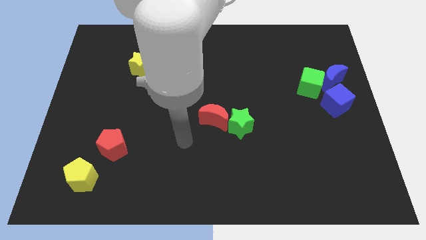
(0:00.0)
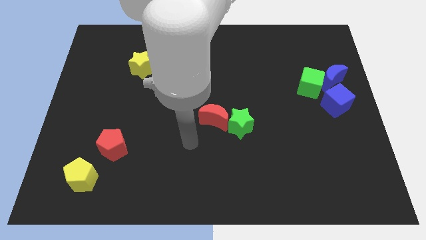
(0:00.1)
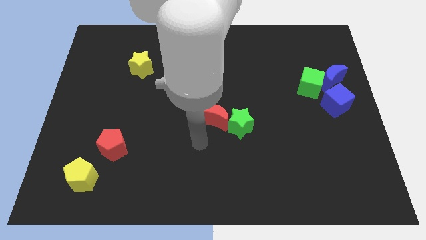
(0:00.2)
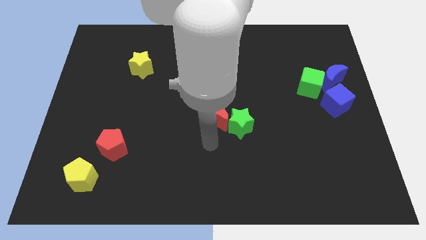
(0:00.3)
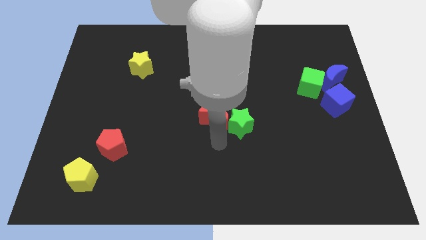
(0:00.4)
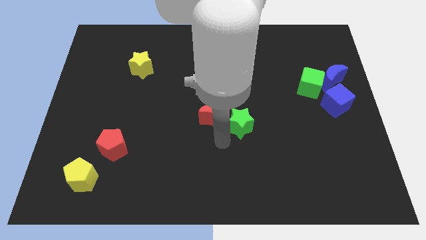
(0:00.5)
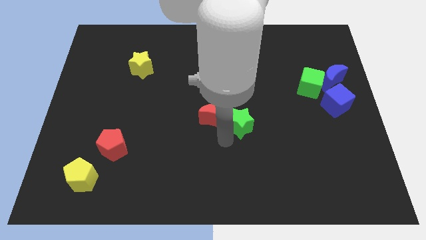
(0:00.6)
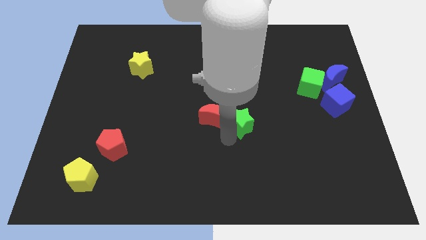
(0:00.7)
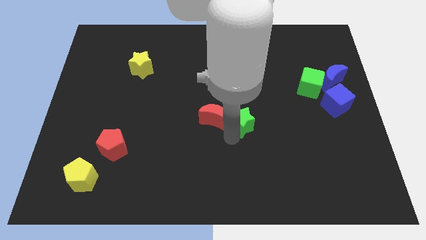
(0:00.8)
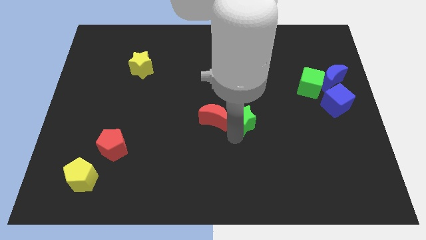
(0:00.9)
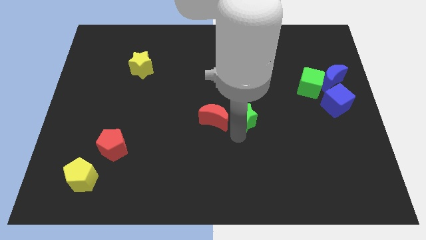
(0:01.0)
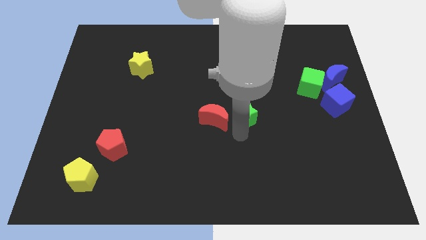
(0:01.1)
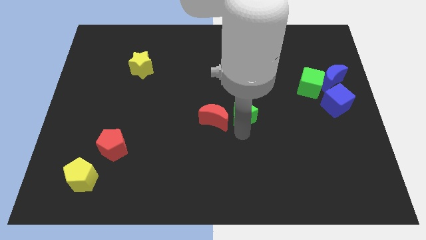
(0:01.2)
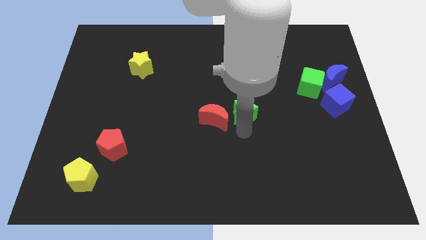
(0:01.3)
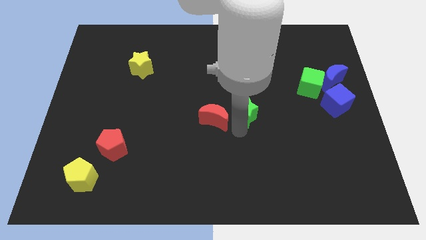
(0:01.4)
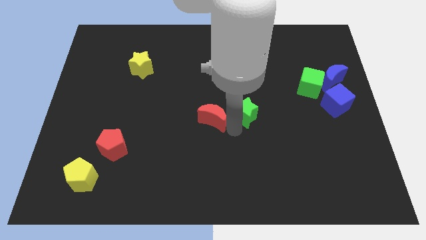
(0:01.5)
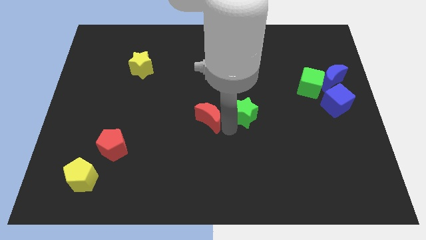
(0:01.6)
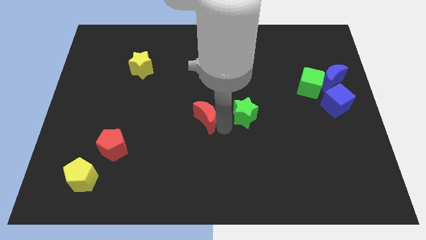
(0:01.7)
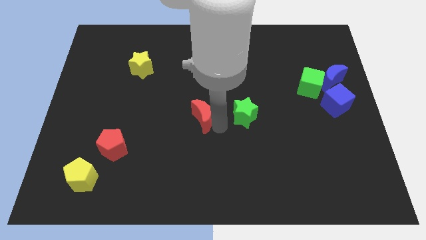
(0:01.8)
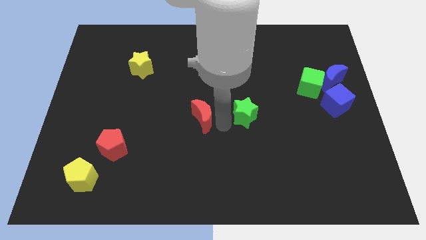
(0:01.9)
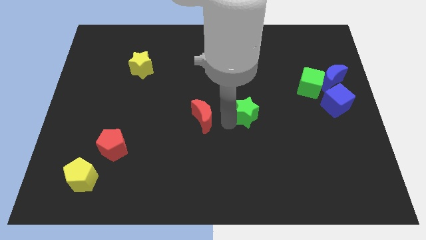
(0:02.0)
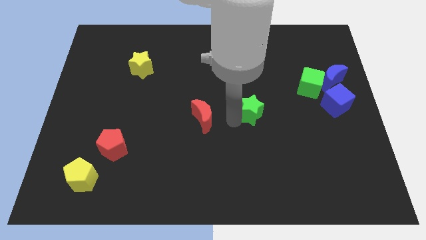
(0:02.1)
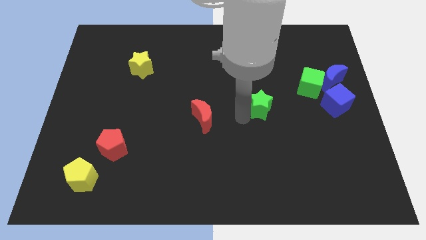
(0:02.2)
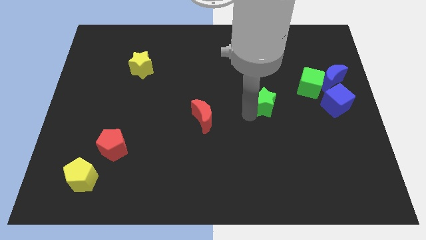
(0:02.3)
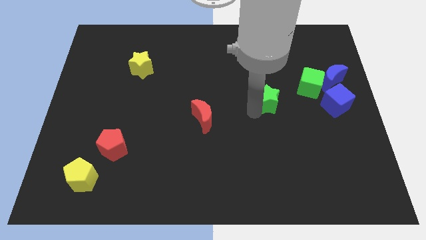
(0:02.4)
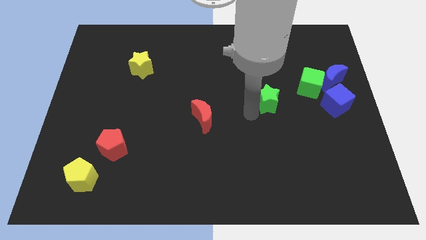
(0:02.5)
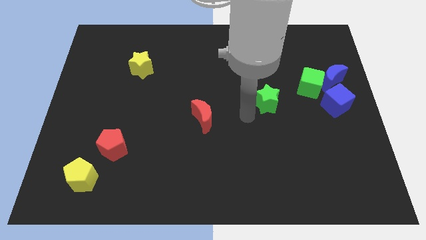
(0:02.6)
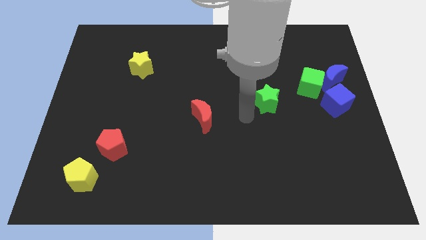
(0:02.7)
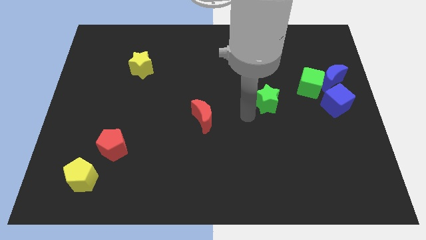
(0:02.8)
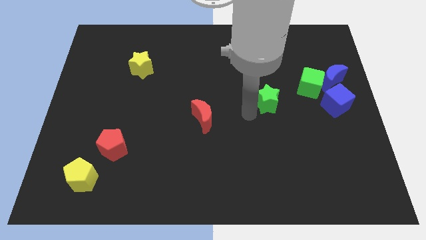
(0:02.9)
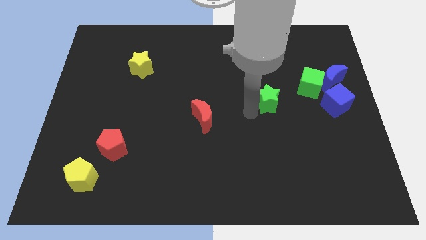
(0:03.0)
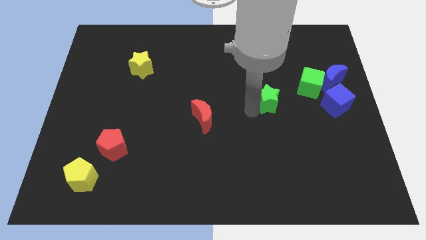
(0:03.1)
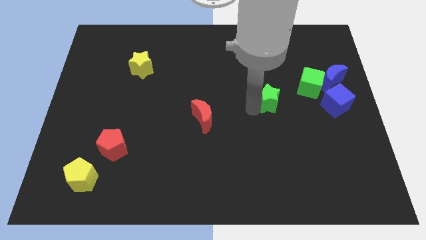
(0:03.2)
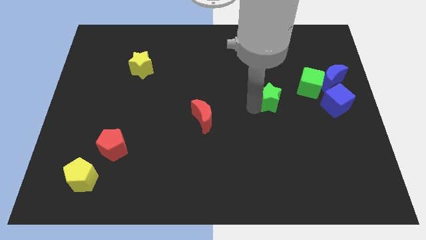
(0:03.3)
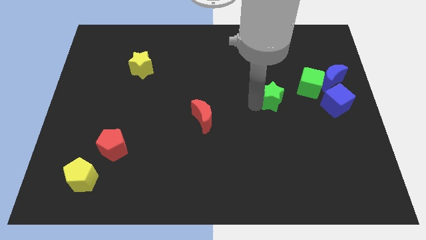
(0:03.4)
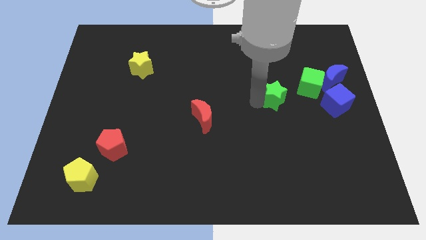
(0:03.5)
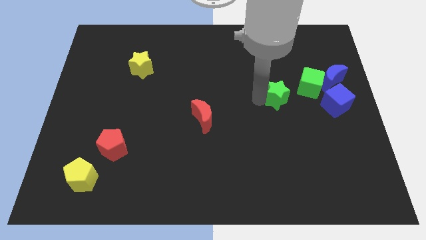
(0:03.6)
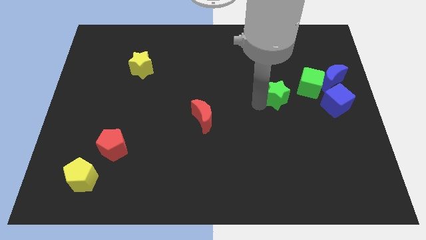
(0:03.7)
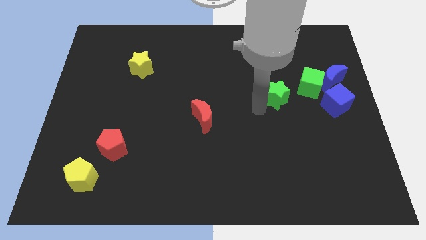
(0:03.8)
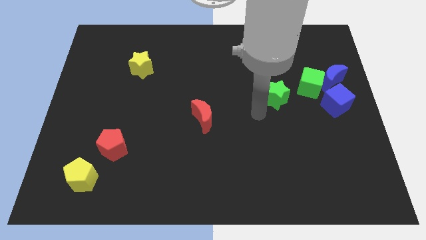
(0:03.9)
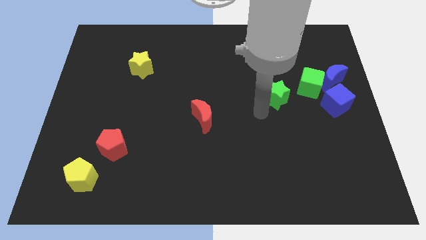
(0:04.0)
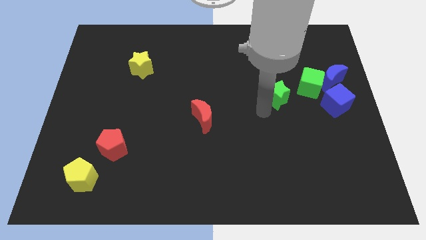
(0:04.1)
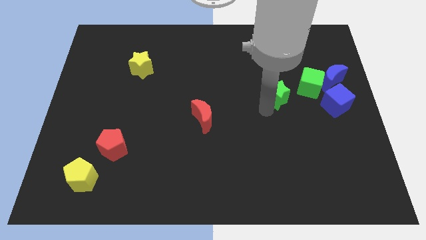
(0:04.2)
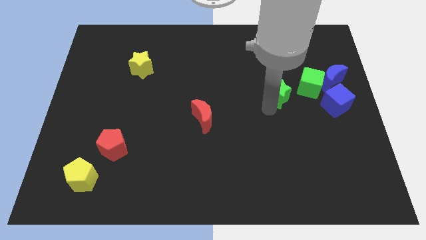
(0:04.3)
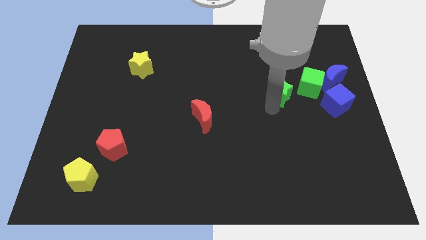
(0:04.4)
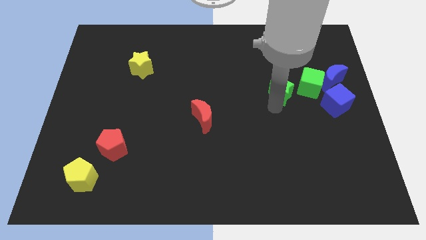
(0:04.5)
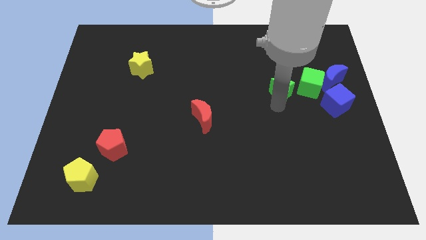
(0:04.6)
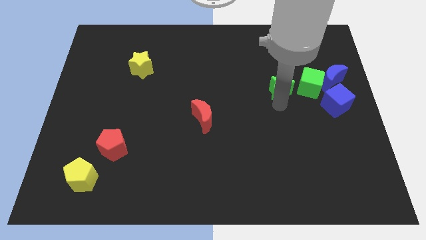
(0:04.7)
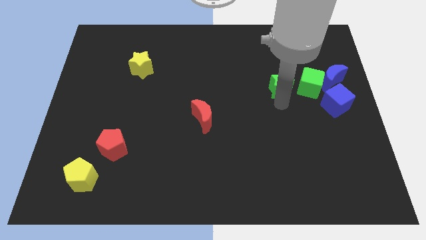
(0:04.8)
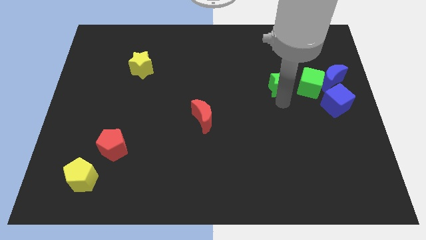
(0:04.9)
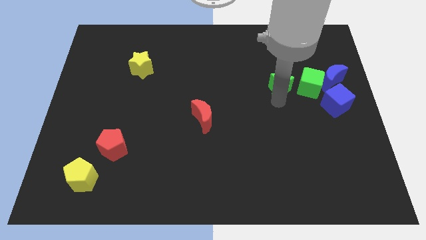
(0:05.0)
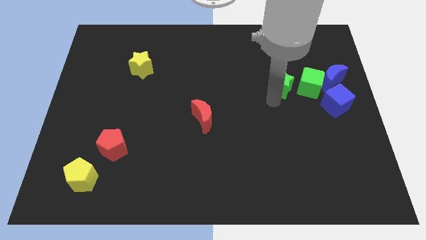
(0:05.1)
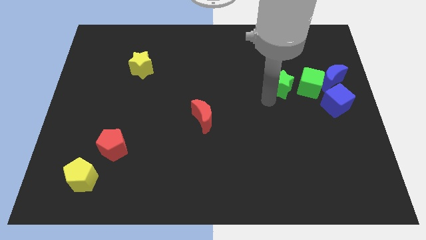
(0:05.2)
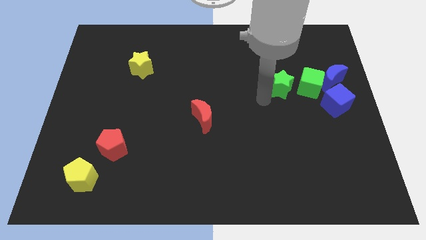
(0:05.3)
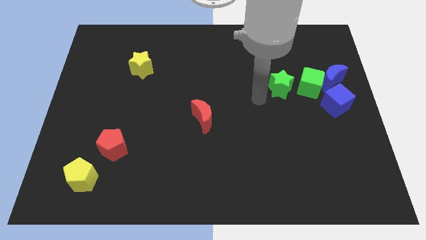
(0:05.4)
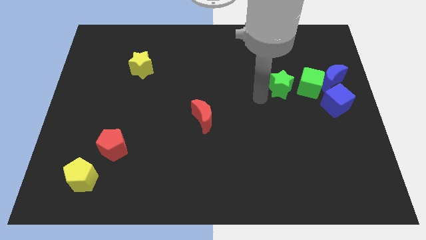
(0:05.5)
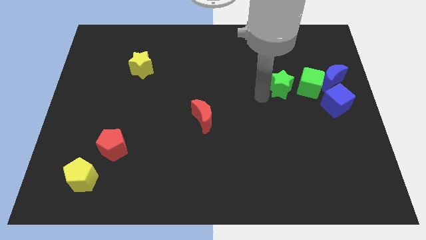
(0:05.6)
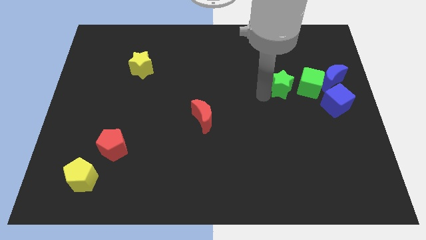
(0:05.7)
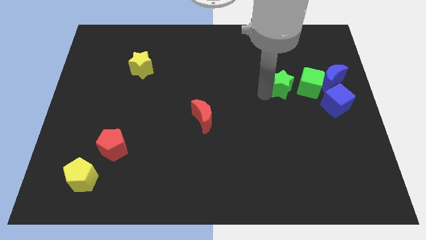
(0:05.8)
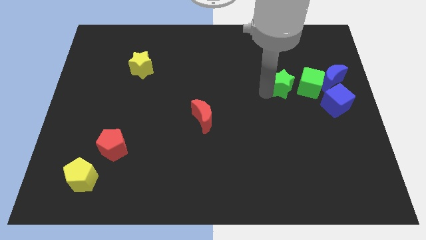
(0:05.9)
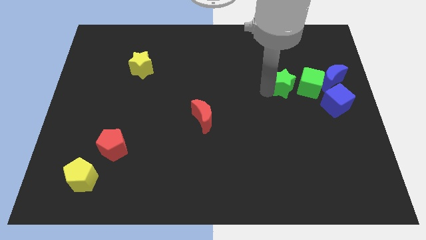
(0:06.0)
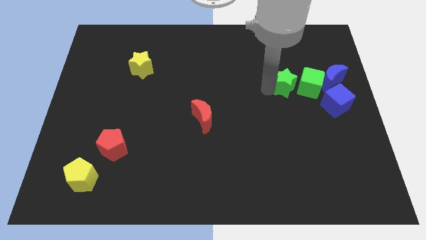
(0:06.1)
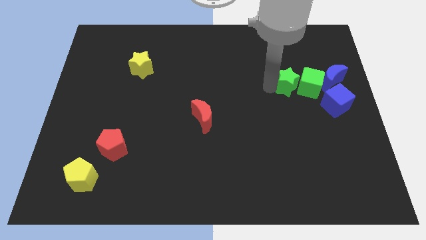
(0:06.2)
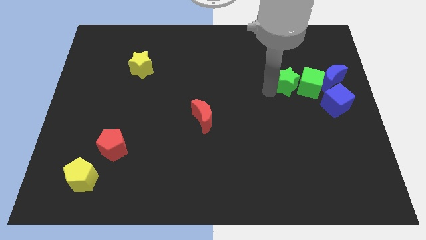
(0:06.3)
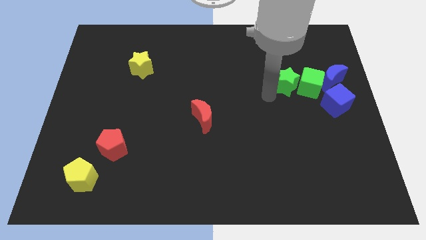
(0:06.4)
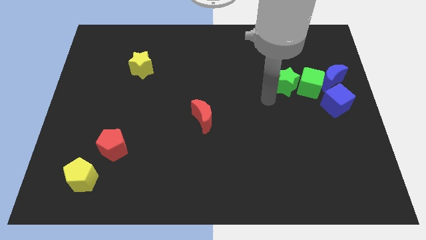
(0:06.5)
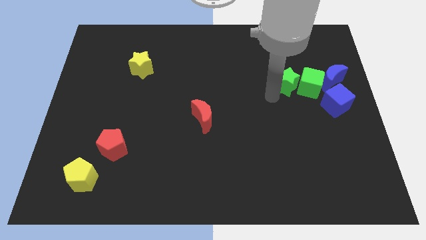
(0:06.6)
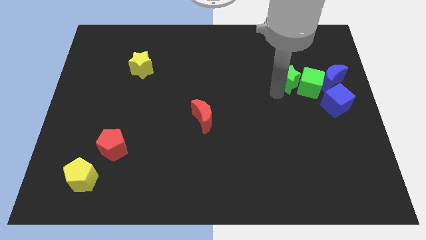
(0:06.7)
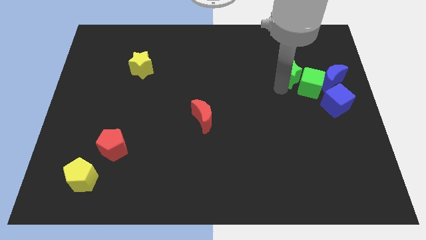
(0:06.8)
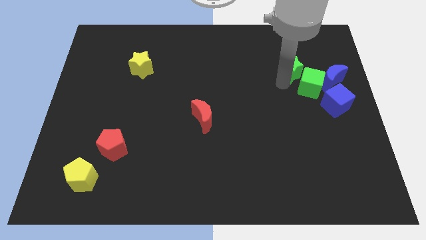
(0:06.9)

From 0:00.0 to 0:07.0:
slide the green star up and right

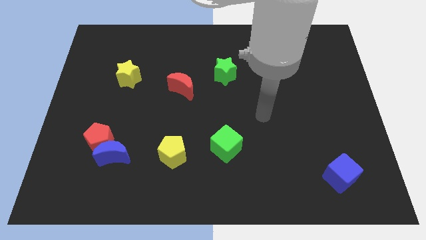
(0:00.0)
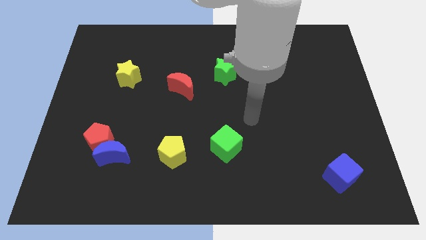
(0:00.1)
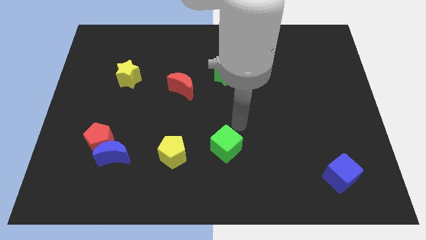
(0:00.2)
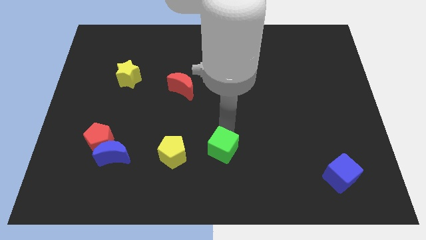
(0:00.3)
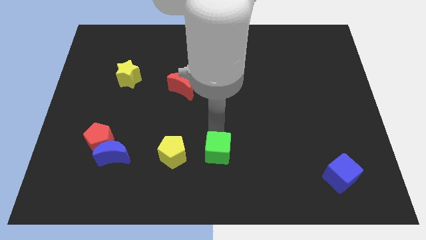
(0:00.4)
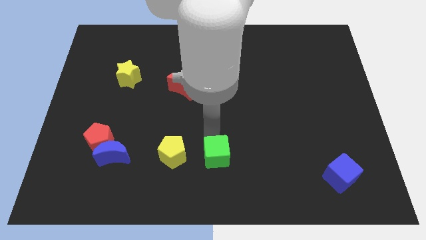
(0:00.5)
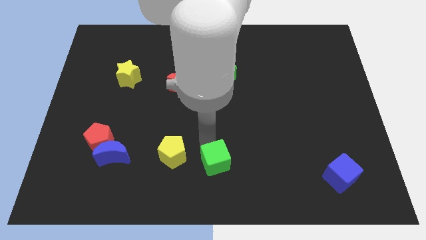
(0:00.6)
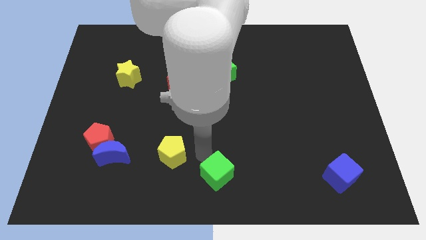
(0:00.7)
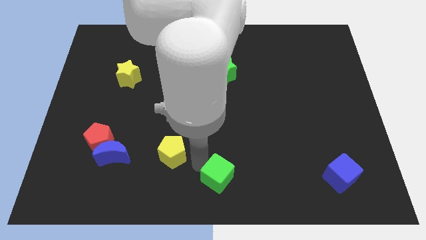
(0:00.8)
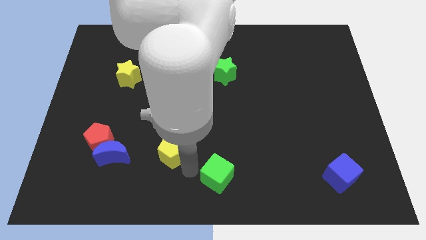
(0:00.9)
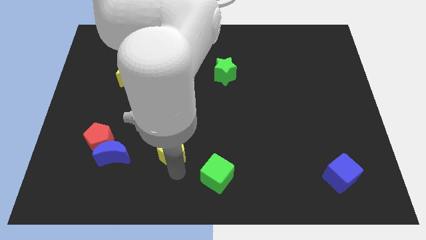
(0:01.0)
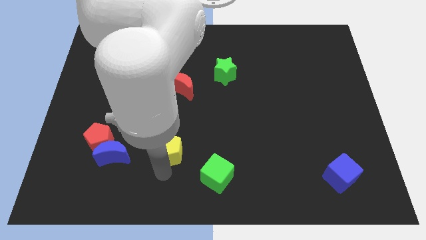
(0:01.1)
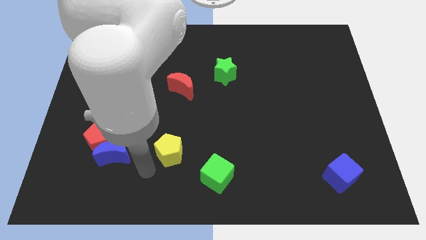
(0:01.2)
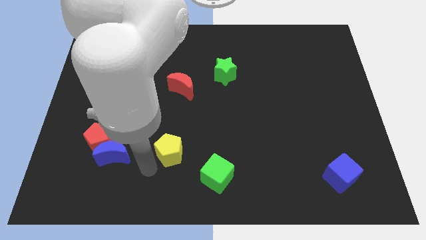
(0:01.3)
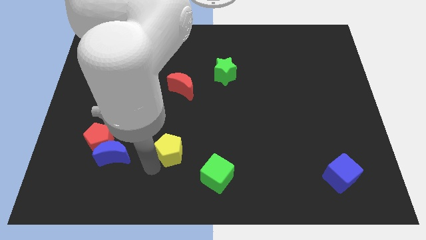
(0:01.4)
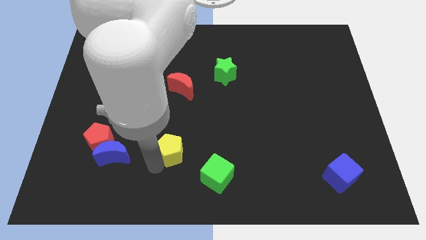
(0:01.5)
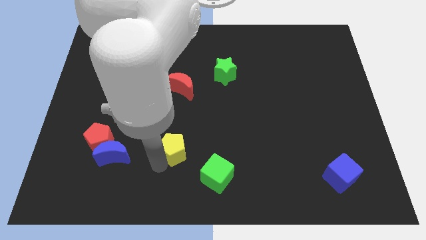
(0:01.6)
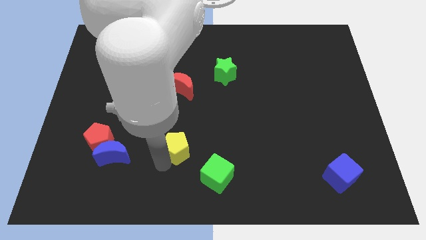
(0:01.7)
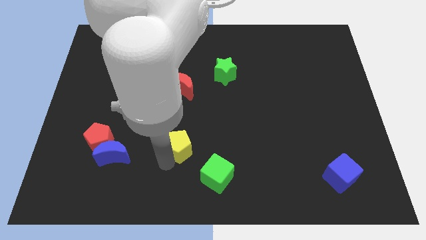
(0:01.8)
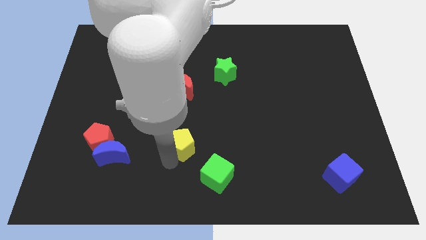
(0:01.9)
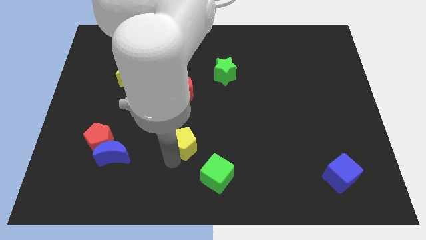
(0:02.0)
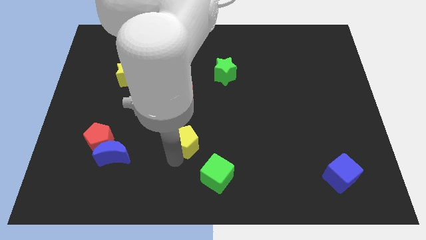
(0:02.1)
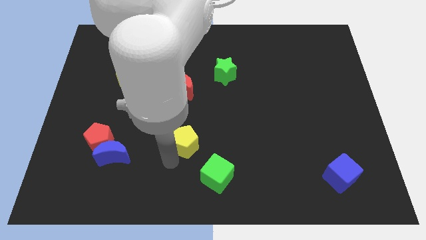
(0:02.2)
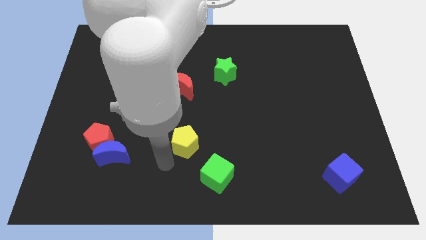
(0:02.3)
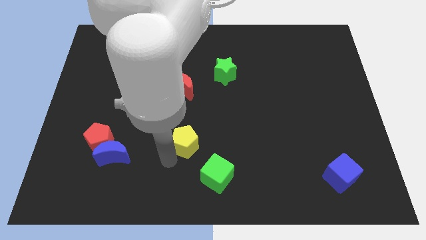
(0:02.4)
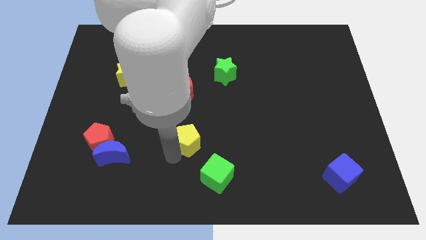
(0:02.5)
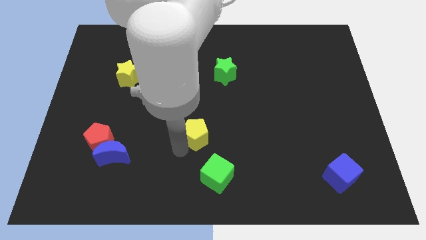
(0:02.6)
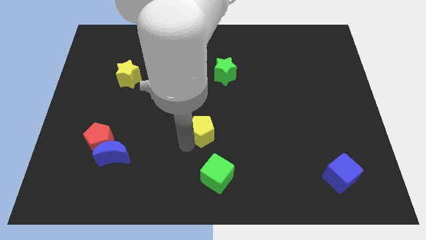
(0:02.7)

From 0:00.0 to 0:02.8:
slightly push the yellow pentagon up and to the right
